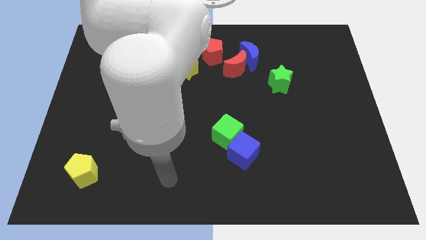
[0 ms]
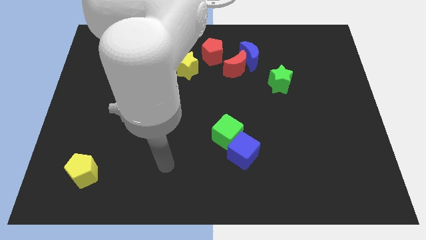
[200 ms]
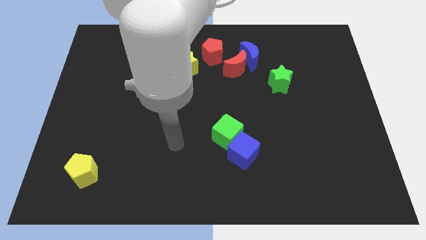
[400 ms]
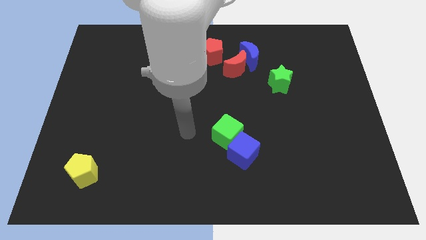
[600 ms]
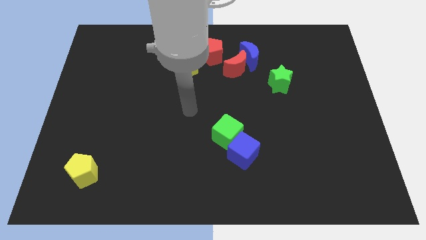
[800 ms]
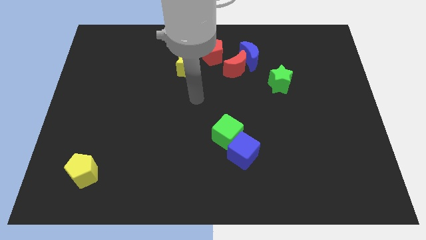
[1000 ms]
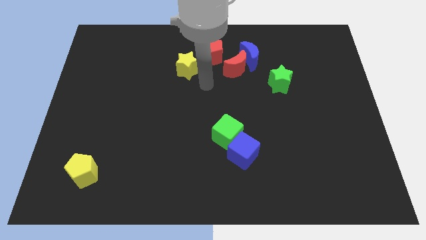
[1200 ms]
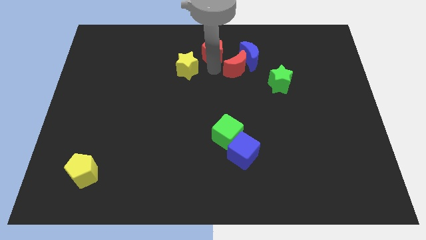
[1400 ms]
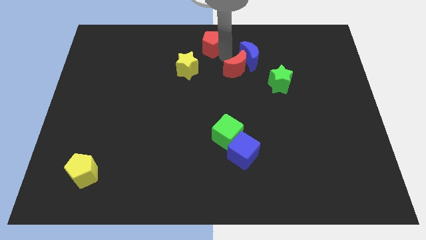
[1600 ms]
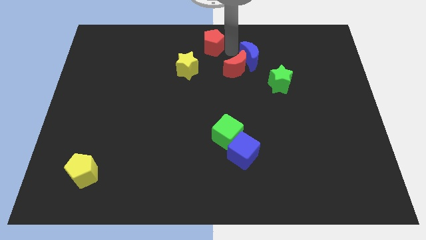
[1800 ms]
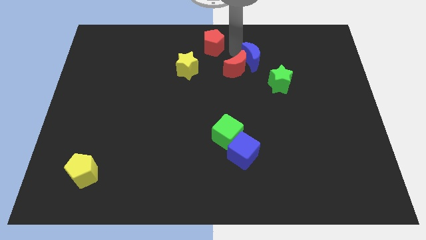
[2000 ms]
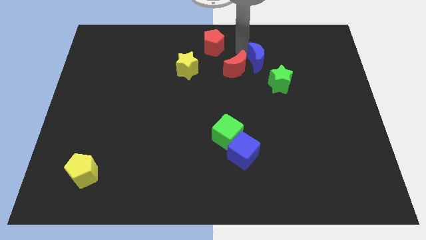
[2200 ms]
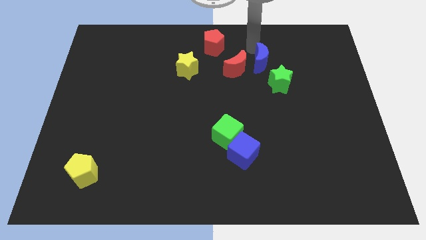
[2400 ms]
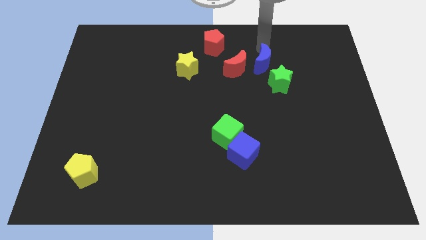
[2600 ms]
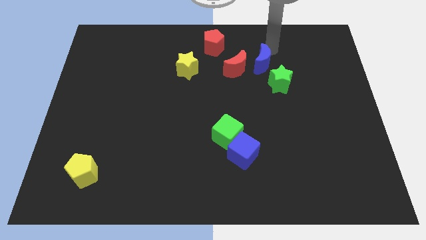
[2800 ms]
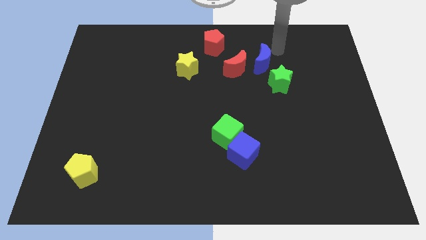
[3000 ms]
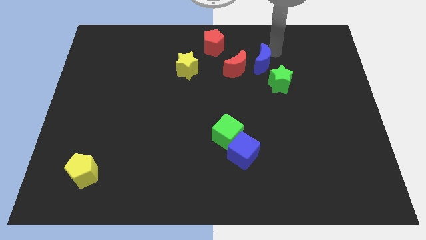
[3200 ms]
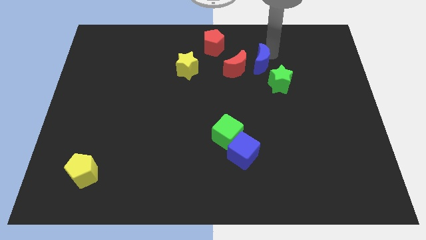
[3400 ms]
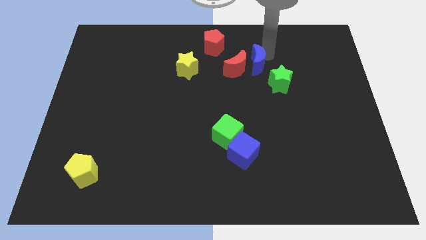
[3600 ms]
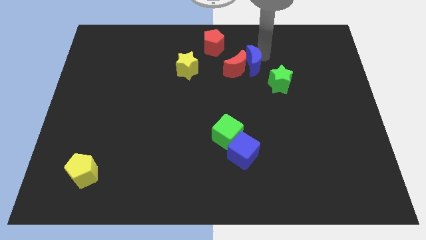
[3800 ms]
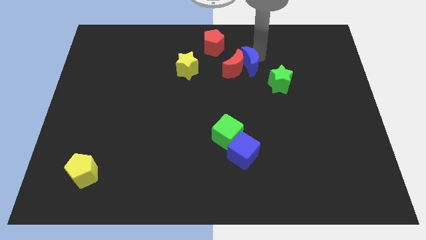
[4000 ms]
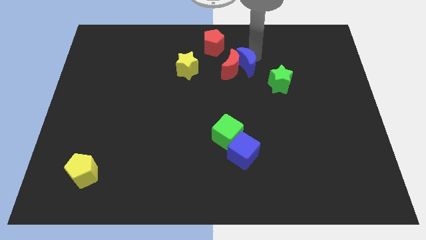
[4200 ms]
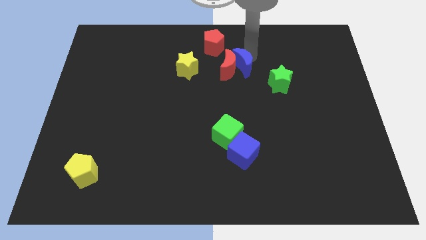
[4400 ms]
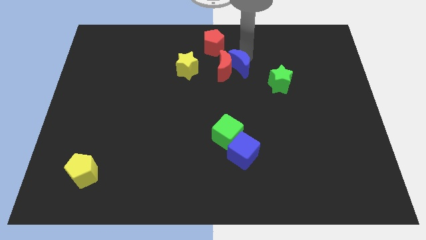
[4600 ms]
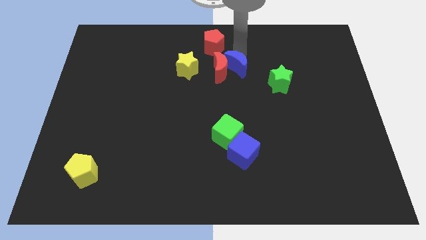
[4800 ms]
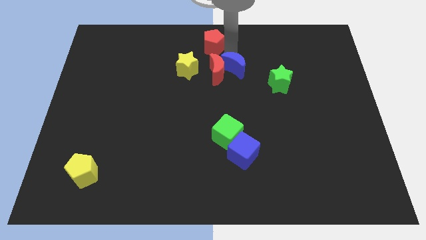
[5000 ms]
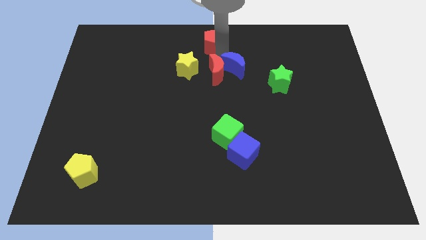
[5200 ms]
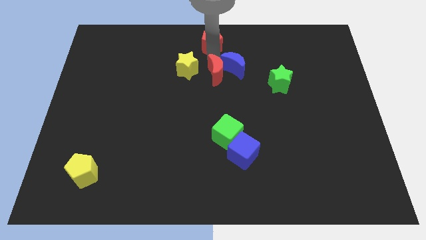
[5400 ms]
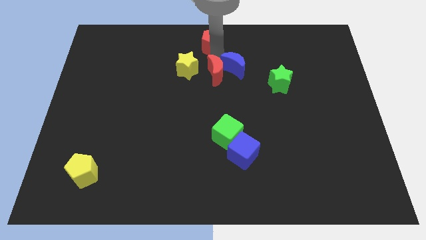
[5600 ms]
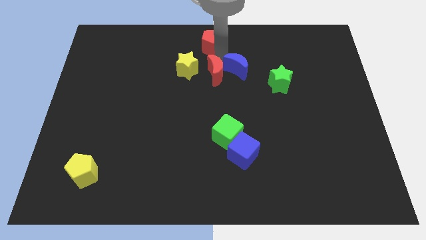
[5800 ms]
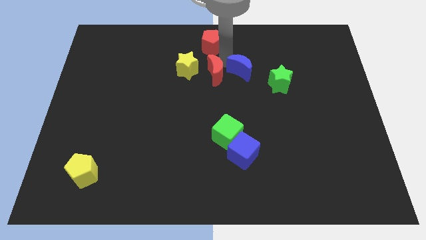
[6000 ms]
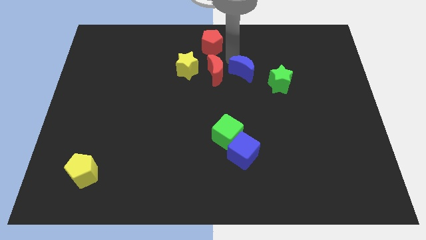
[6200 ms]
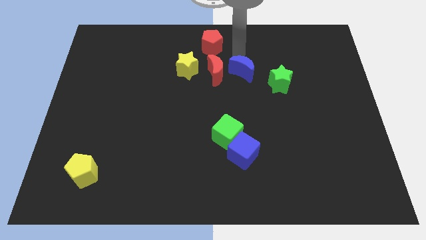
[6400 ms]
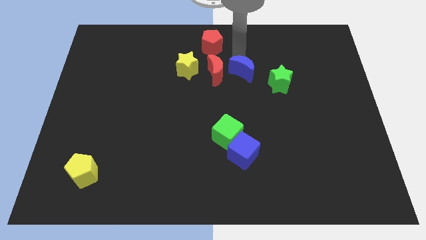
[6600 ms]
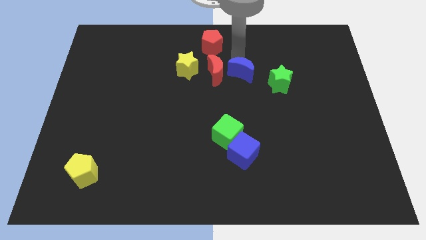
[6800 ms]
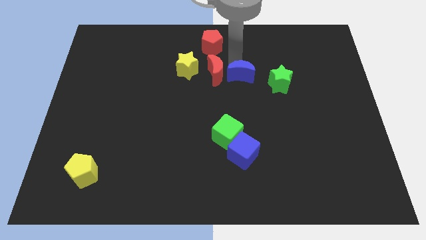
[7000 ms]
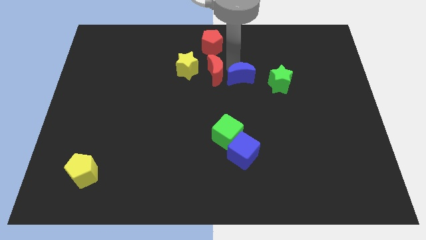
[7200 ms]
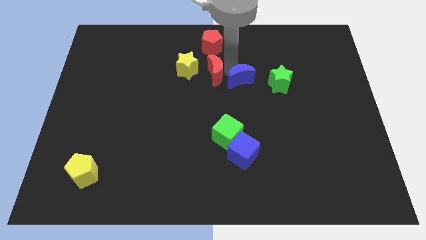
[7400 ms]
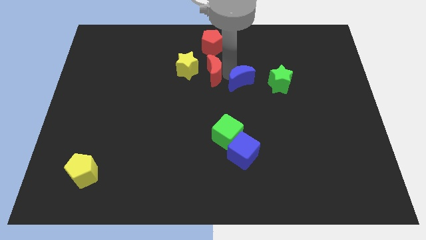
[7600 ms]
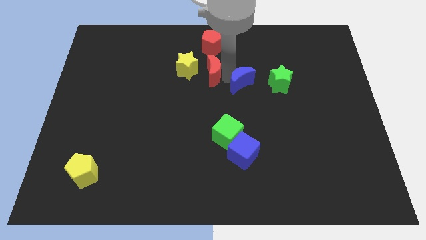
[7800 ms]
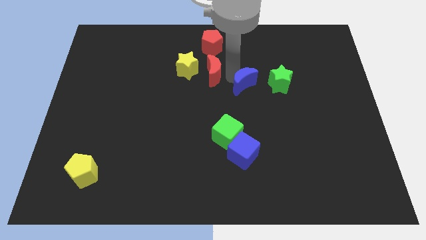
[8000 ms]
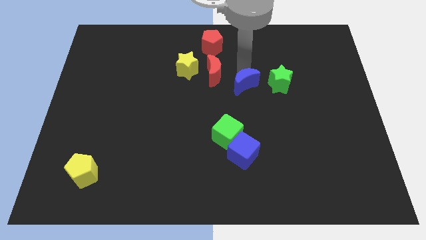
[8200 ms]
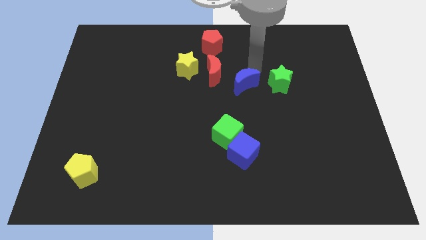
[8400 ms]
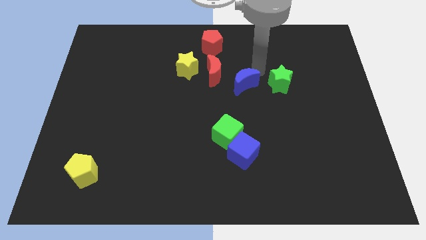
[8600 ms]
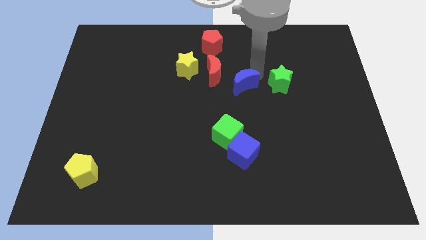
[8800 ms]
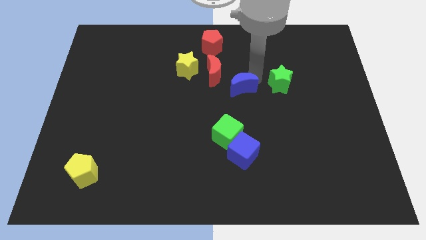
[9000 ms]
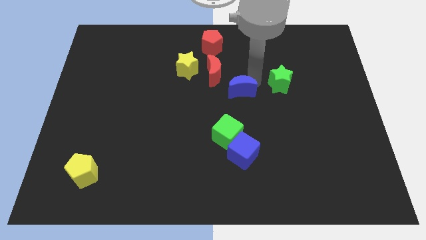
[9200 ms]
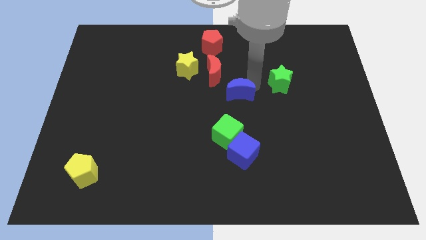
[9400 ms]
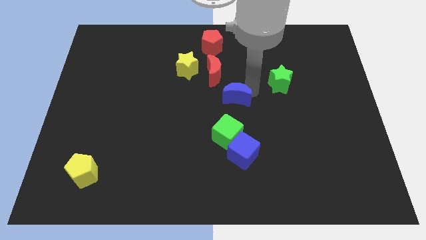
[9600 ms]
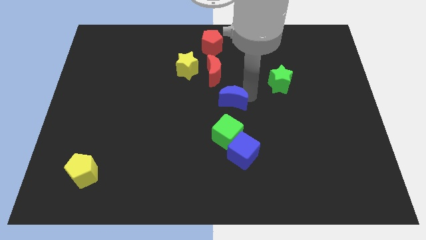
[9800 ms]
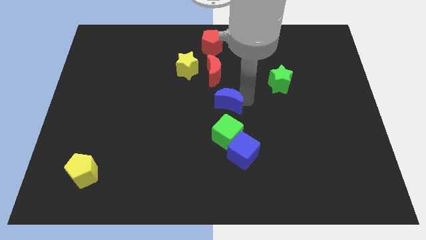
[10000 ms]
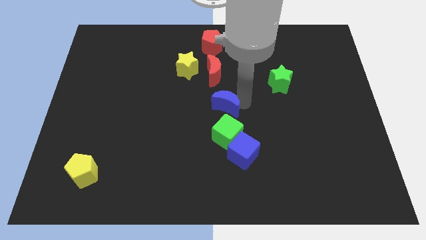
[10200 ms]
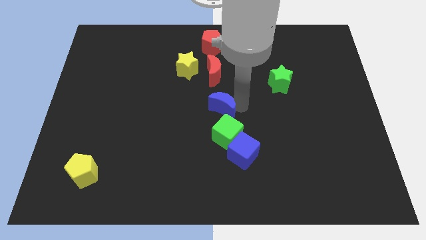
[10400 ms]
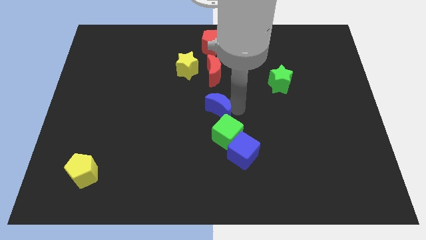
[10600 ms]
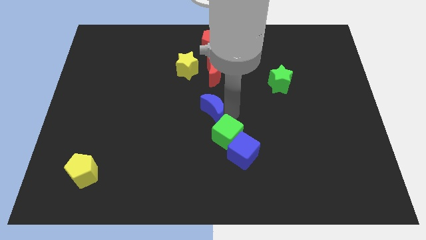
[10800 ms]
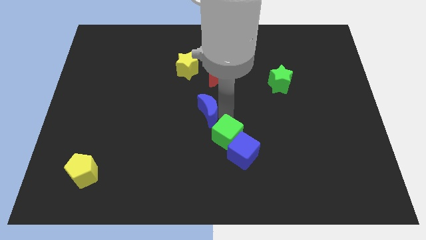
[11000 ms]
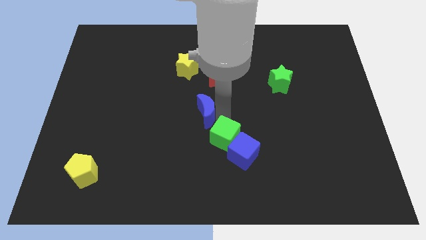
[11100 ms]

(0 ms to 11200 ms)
push the blue moon down and then left

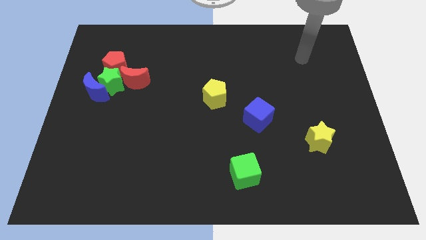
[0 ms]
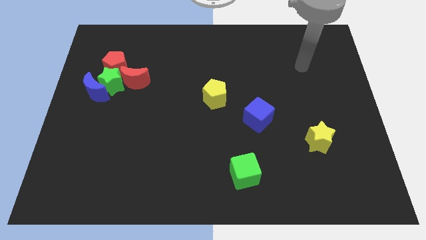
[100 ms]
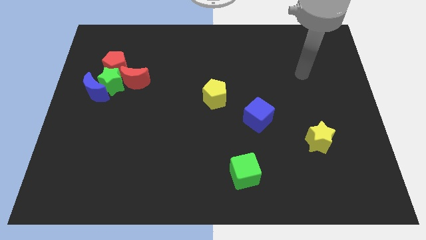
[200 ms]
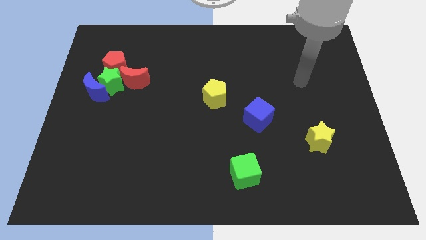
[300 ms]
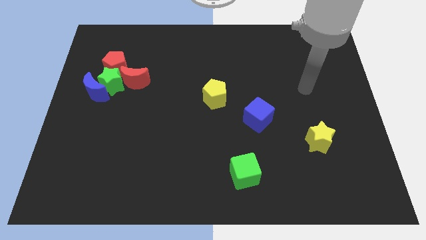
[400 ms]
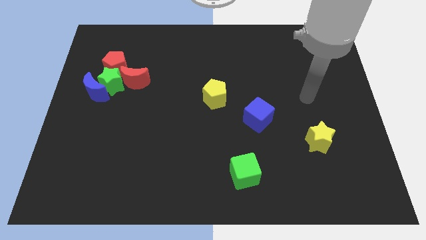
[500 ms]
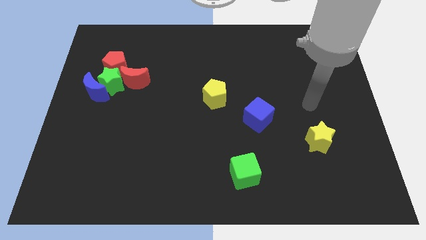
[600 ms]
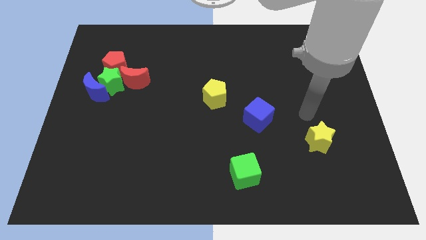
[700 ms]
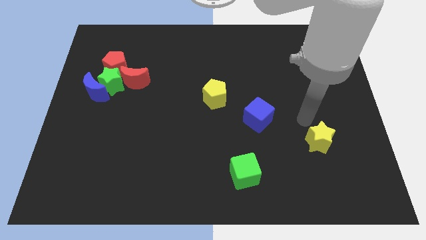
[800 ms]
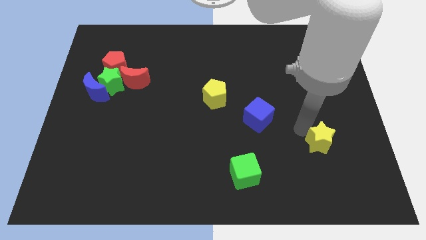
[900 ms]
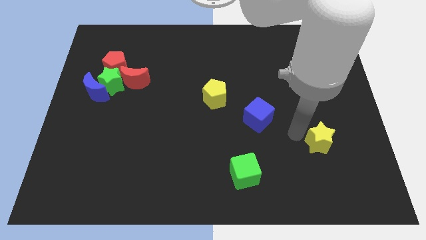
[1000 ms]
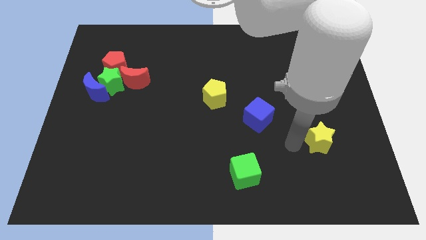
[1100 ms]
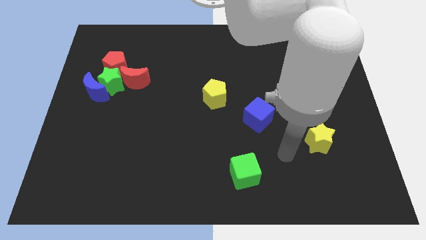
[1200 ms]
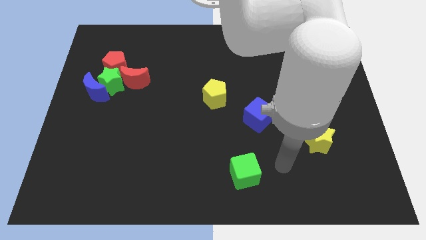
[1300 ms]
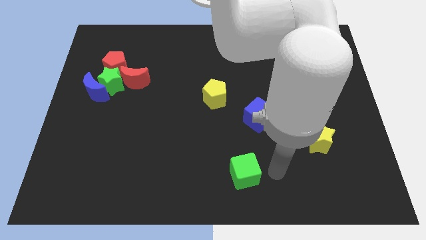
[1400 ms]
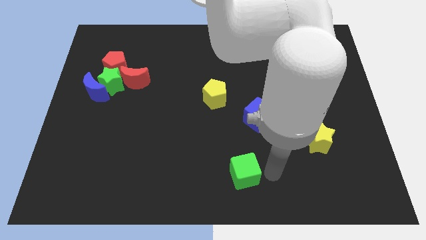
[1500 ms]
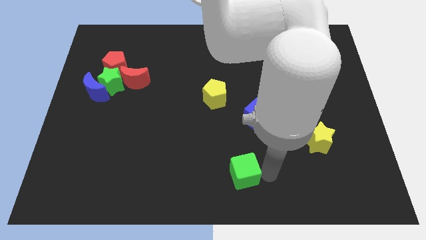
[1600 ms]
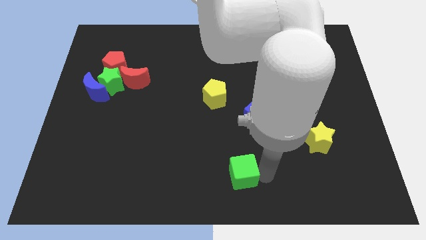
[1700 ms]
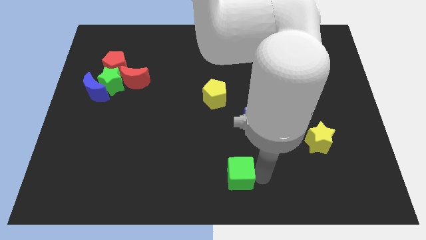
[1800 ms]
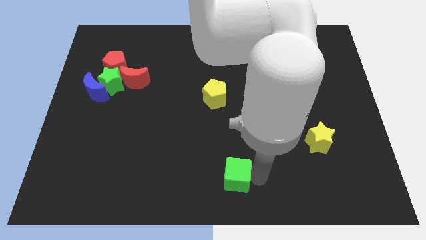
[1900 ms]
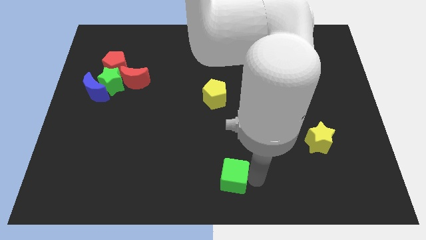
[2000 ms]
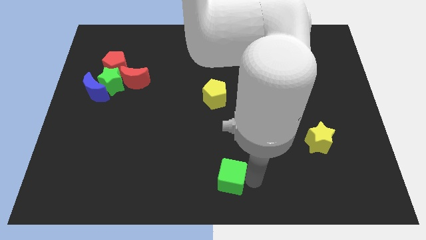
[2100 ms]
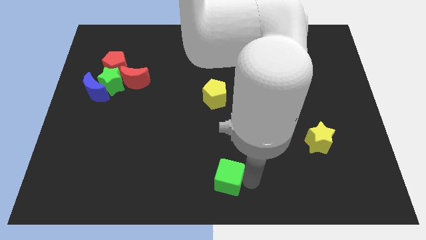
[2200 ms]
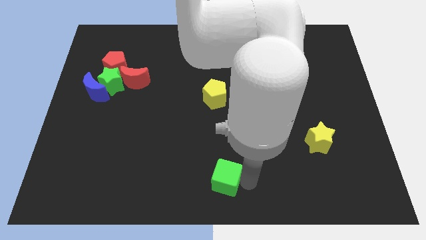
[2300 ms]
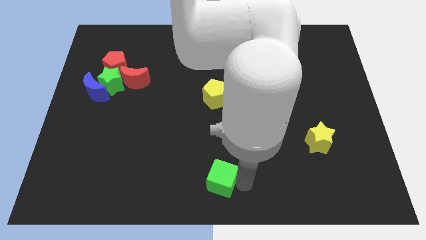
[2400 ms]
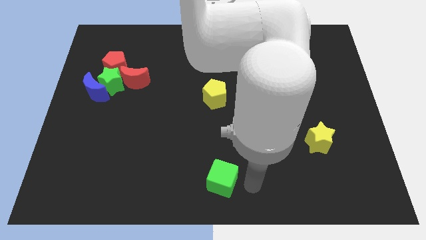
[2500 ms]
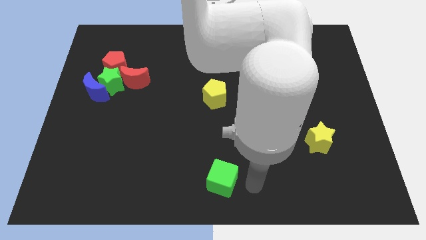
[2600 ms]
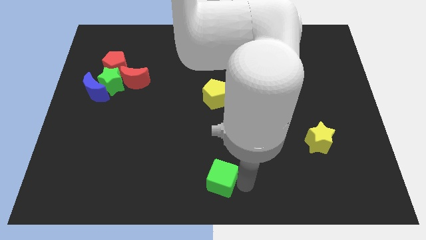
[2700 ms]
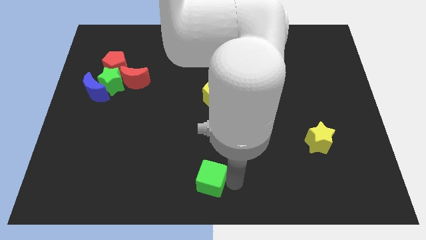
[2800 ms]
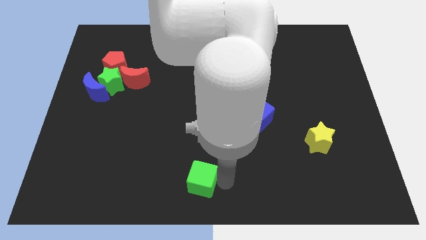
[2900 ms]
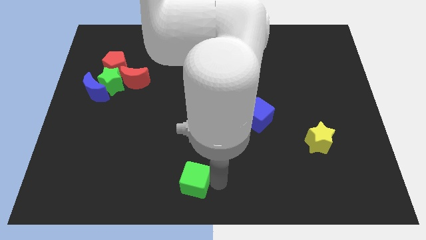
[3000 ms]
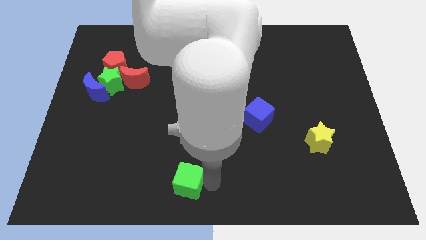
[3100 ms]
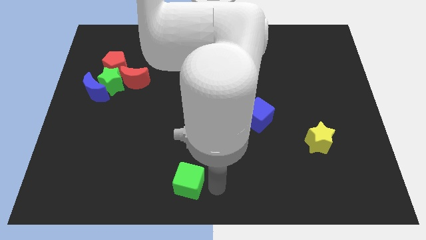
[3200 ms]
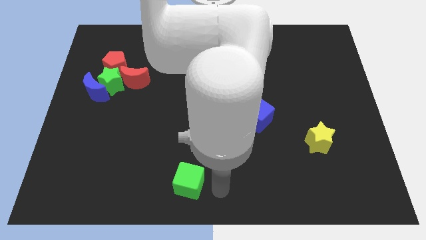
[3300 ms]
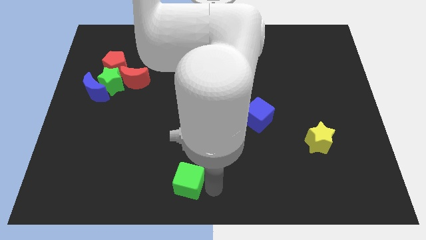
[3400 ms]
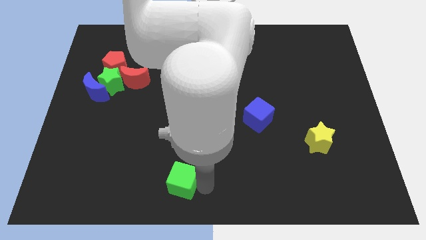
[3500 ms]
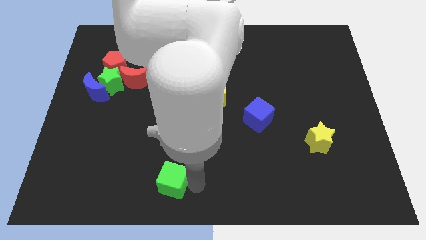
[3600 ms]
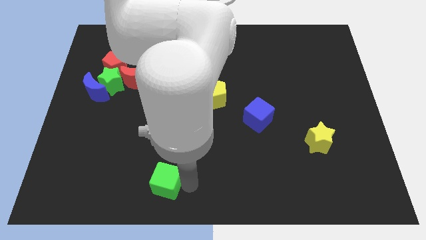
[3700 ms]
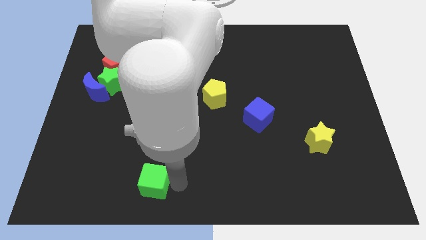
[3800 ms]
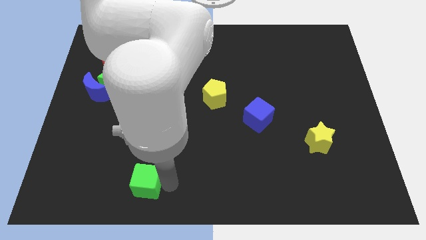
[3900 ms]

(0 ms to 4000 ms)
push the green cube left
